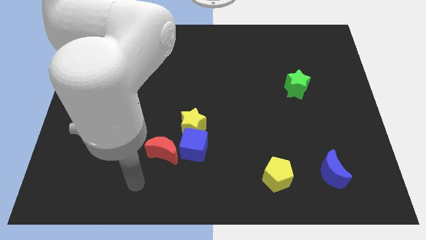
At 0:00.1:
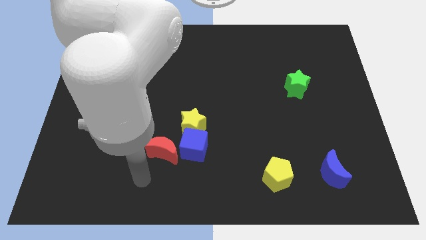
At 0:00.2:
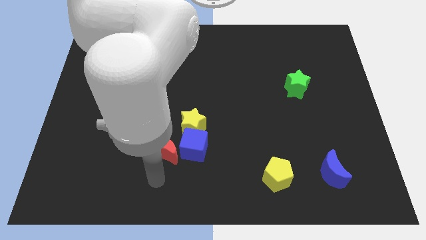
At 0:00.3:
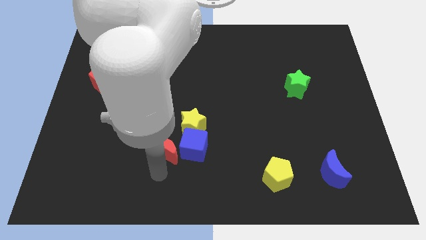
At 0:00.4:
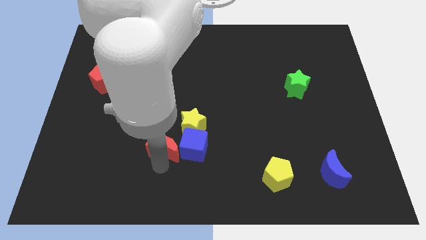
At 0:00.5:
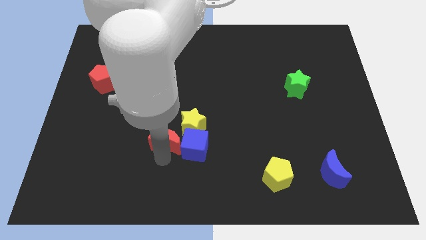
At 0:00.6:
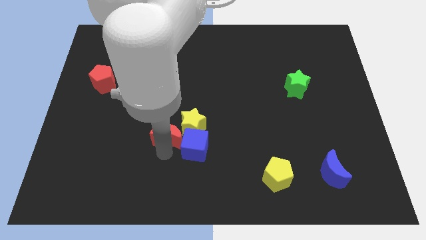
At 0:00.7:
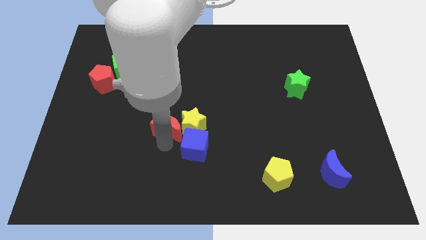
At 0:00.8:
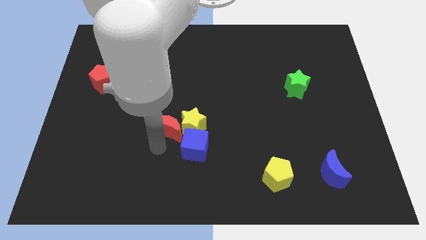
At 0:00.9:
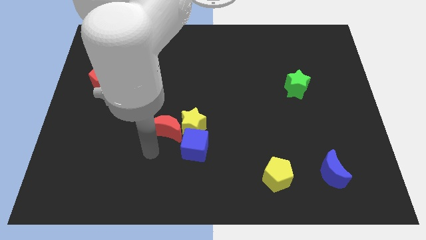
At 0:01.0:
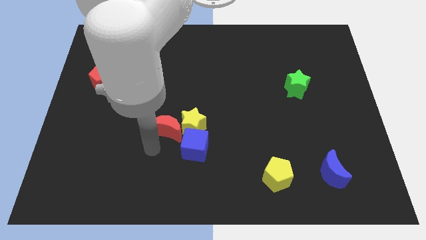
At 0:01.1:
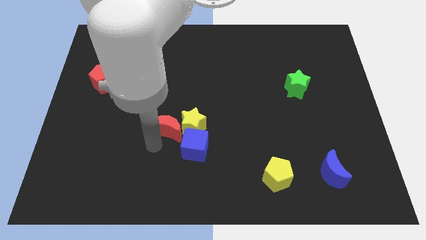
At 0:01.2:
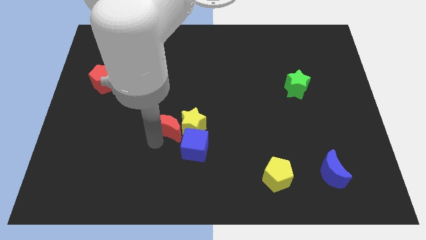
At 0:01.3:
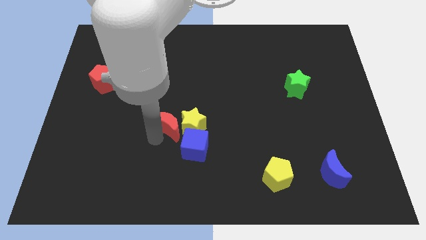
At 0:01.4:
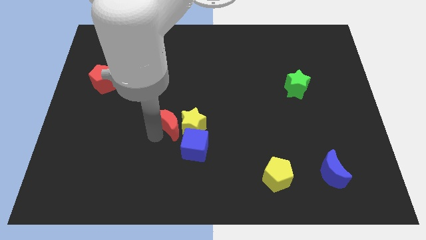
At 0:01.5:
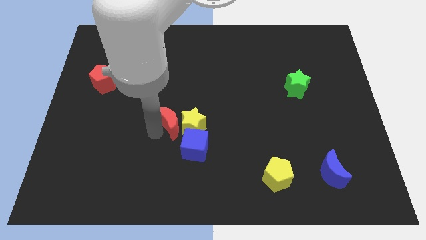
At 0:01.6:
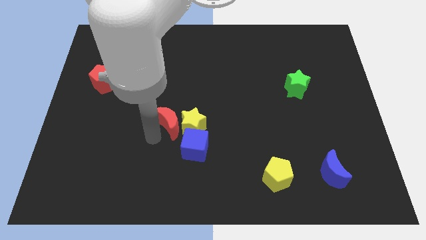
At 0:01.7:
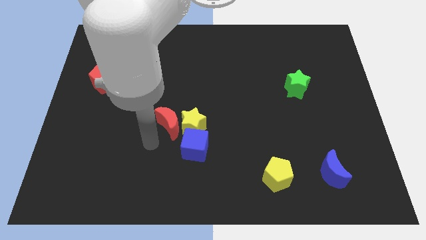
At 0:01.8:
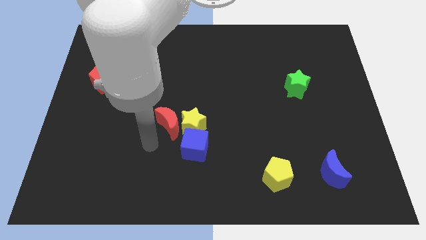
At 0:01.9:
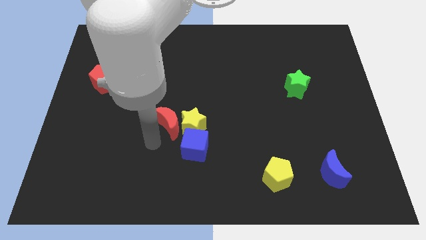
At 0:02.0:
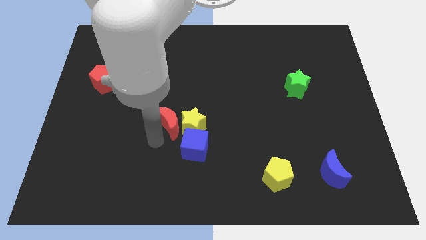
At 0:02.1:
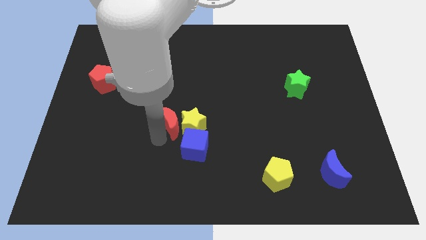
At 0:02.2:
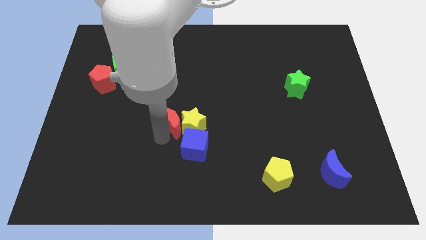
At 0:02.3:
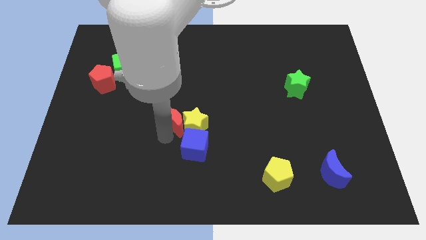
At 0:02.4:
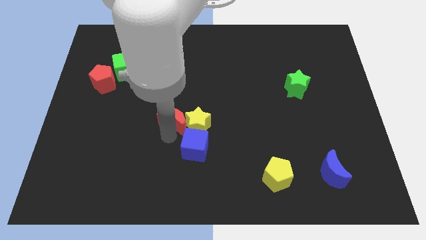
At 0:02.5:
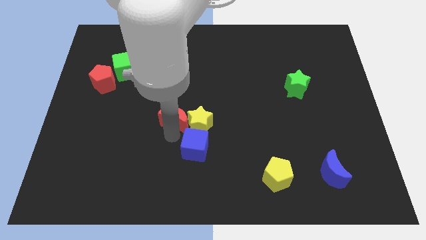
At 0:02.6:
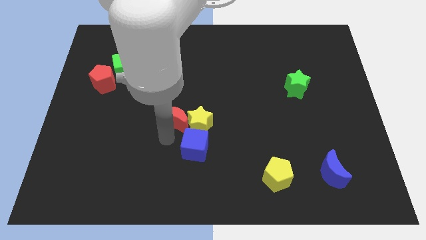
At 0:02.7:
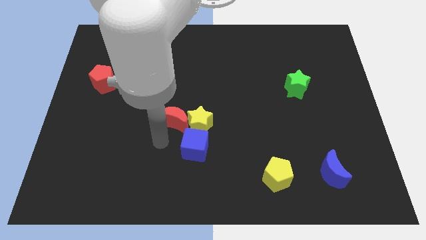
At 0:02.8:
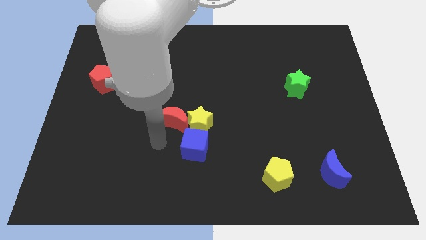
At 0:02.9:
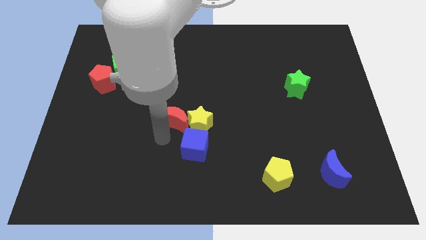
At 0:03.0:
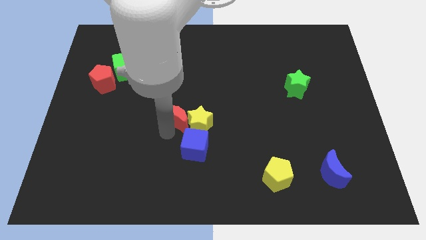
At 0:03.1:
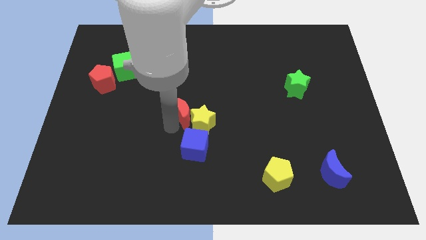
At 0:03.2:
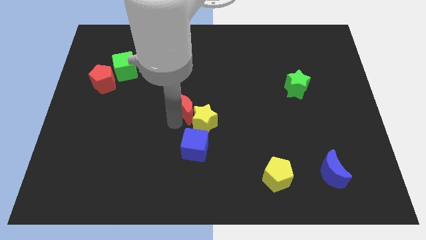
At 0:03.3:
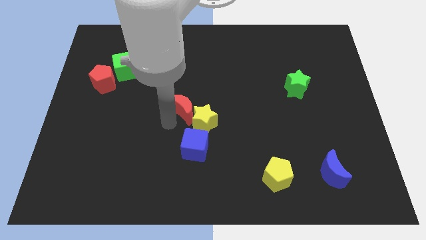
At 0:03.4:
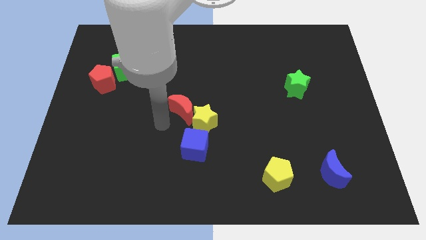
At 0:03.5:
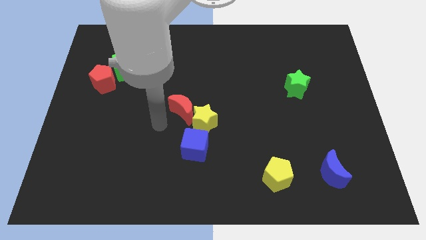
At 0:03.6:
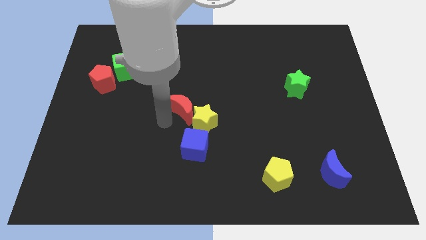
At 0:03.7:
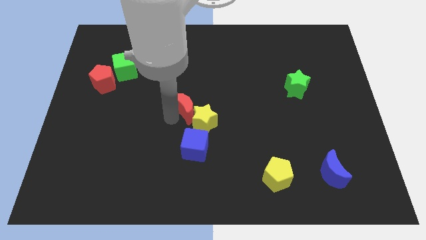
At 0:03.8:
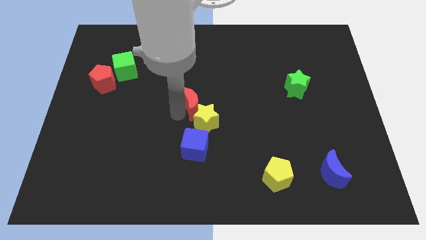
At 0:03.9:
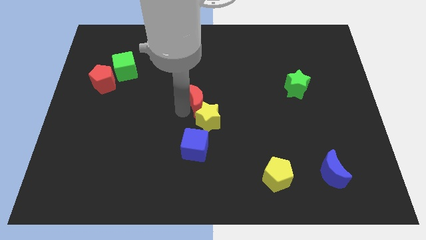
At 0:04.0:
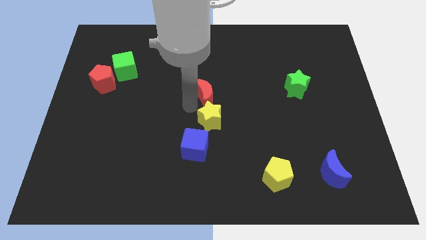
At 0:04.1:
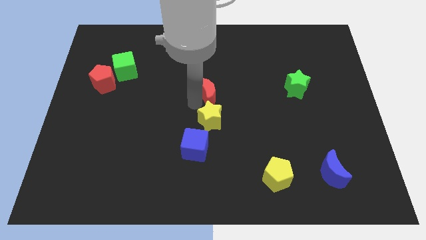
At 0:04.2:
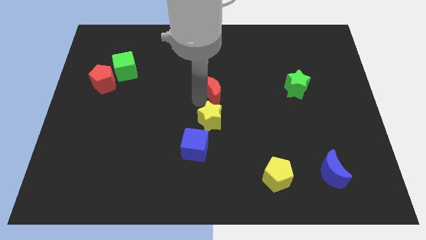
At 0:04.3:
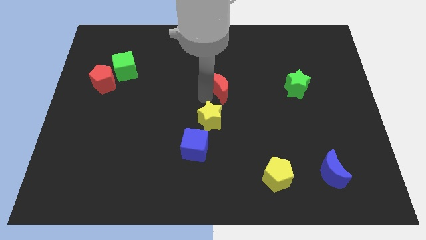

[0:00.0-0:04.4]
push the red moon upwards and then to the right

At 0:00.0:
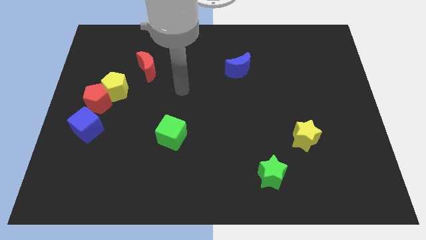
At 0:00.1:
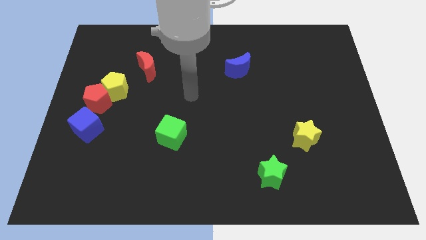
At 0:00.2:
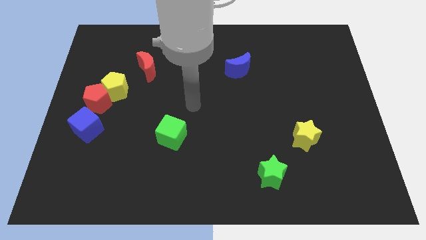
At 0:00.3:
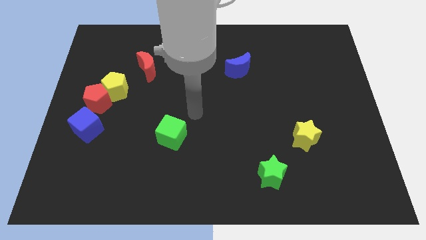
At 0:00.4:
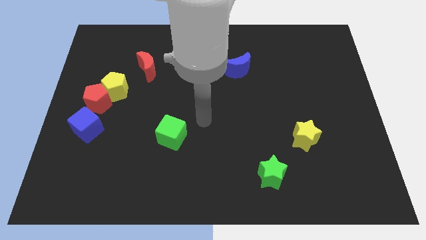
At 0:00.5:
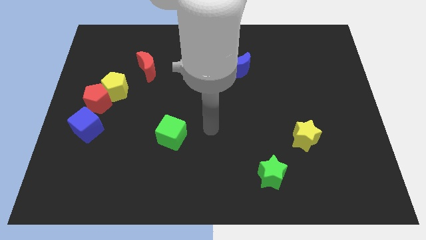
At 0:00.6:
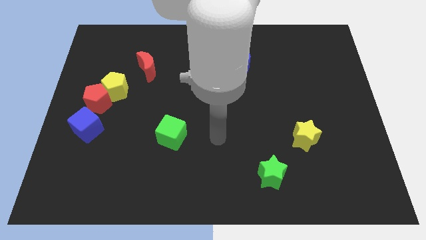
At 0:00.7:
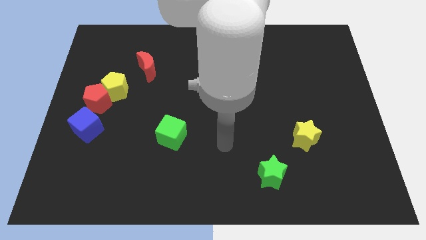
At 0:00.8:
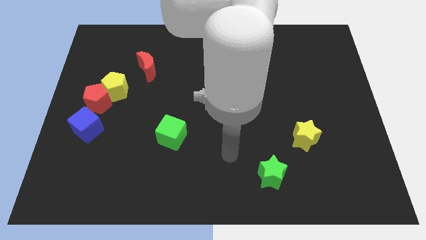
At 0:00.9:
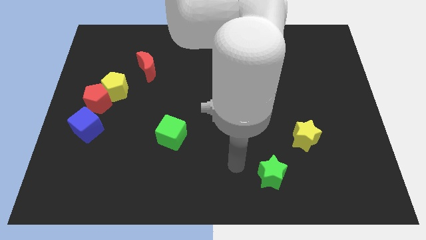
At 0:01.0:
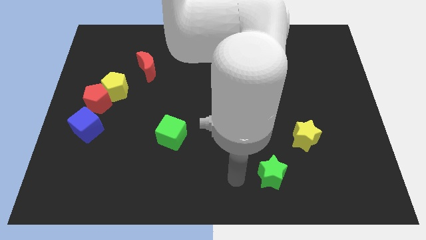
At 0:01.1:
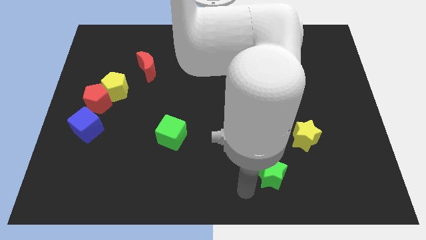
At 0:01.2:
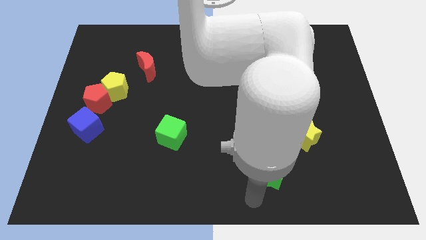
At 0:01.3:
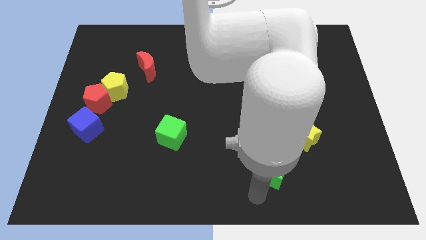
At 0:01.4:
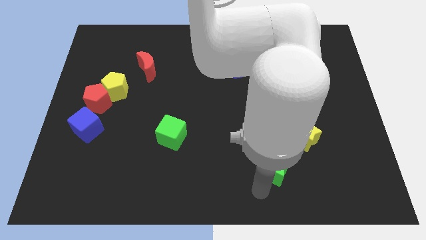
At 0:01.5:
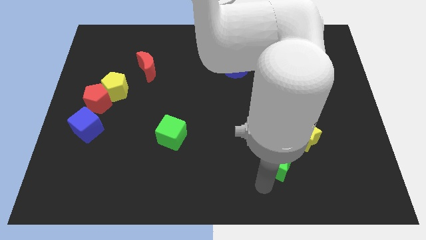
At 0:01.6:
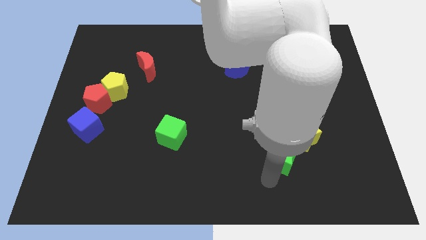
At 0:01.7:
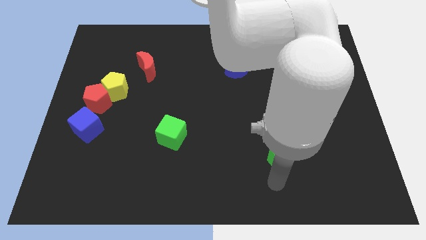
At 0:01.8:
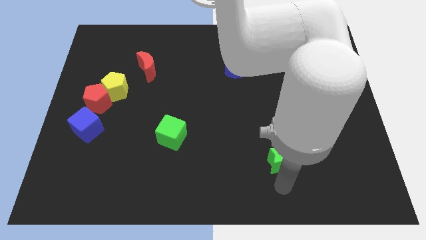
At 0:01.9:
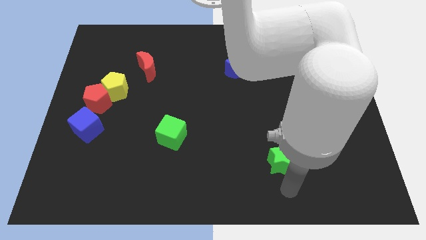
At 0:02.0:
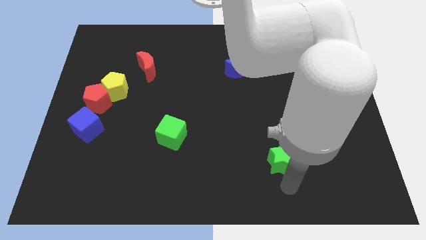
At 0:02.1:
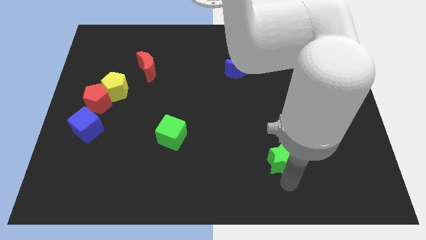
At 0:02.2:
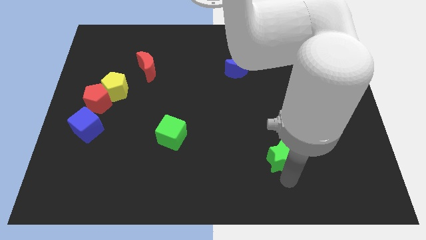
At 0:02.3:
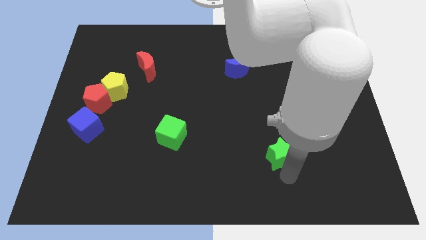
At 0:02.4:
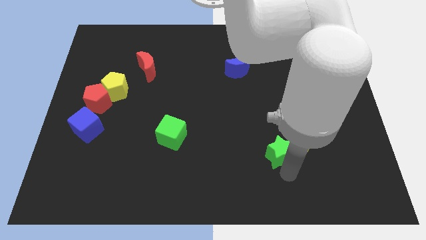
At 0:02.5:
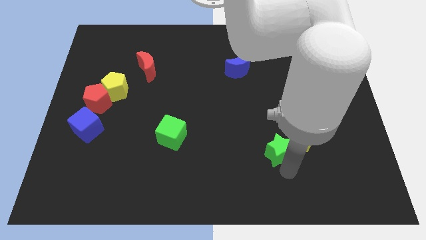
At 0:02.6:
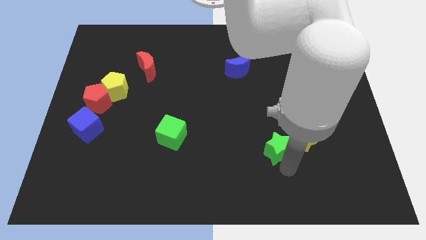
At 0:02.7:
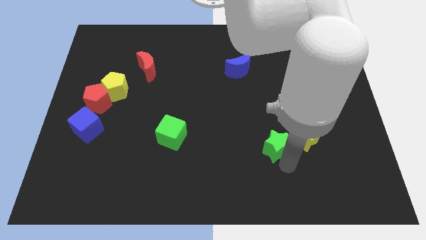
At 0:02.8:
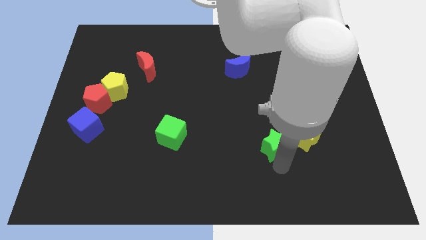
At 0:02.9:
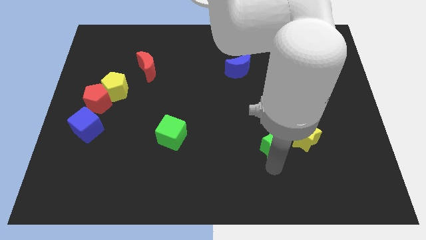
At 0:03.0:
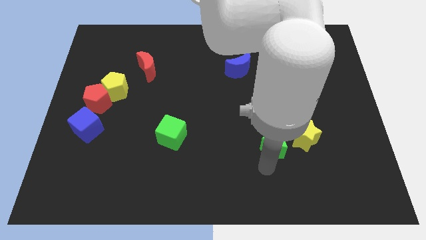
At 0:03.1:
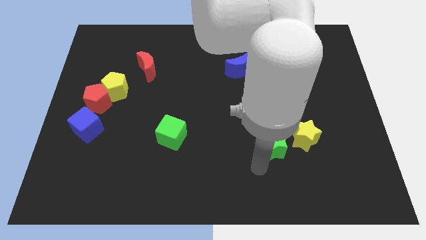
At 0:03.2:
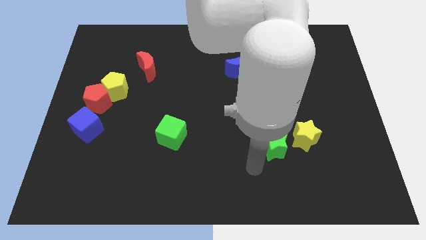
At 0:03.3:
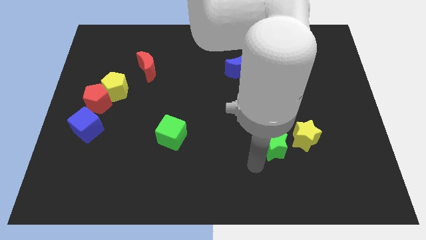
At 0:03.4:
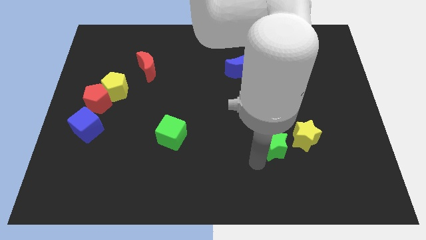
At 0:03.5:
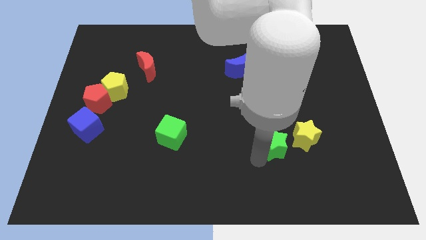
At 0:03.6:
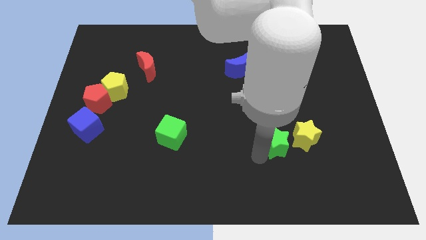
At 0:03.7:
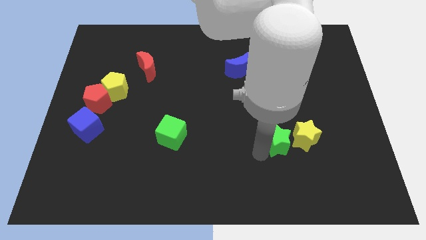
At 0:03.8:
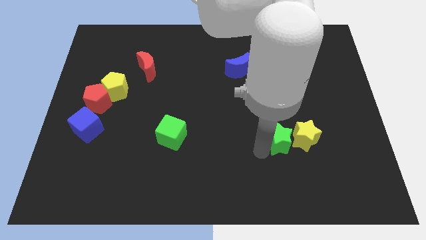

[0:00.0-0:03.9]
slightly move the green star up and to the right diagonally

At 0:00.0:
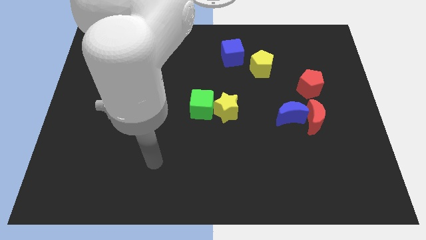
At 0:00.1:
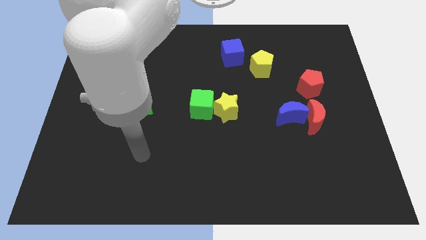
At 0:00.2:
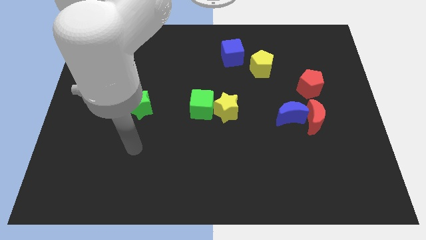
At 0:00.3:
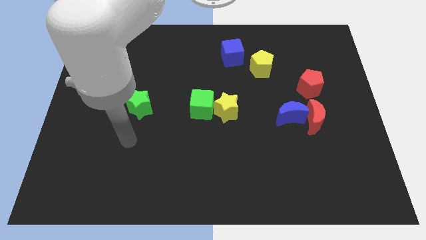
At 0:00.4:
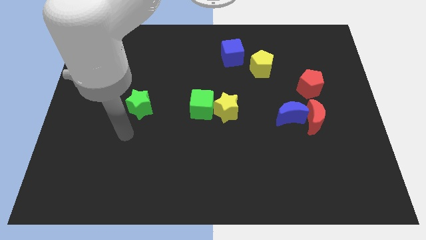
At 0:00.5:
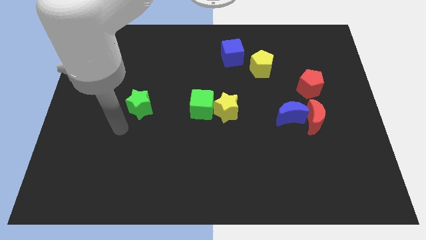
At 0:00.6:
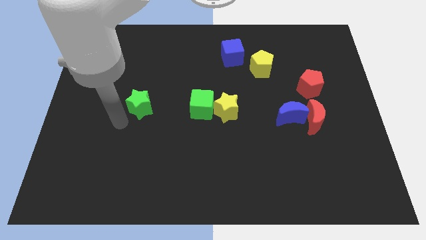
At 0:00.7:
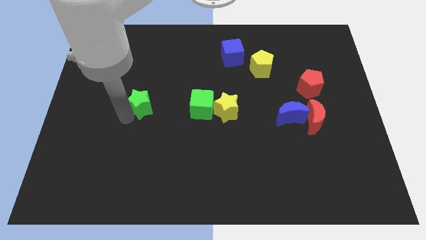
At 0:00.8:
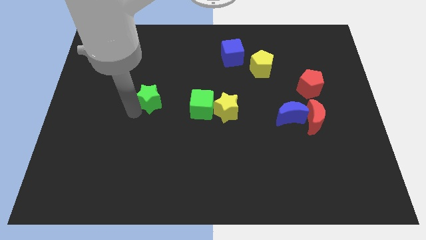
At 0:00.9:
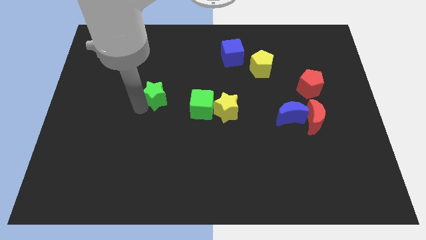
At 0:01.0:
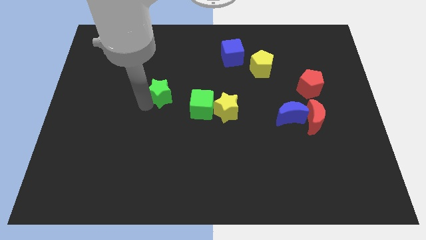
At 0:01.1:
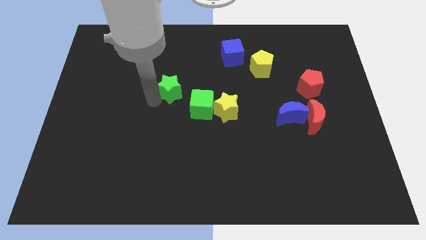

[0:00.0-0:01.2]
slide the green star diagonally upwards and right slightly
